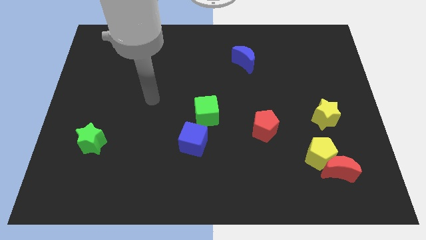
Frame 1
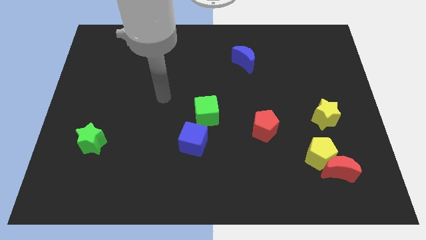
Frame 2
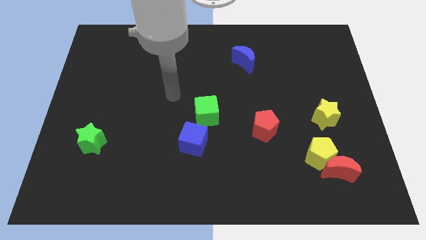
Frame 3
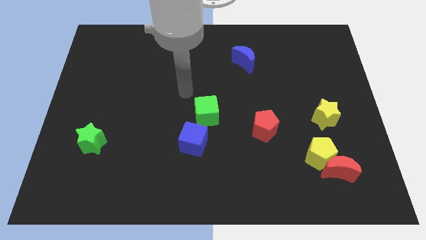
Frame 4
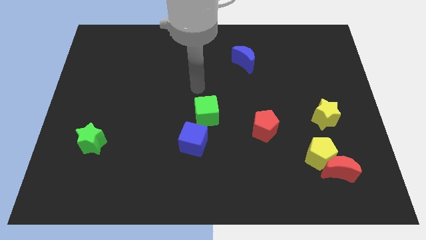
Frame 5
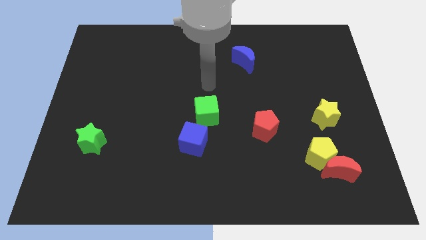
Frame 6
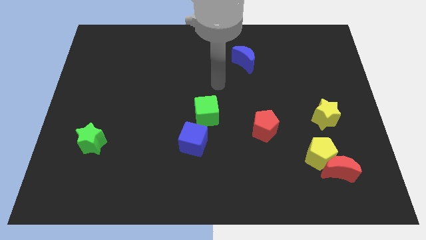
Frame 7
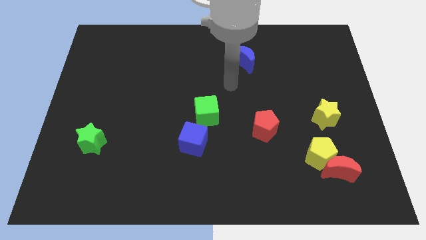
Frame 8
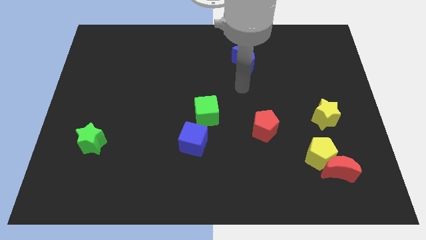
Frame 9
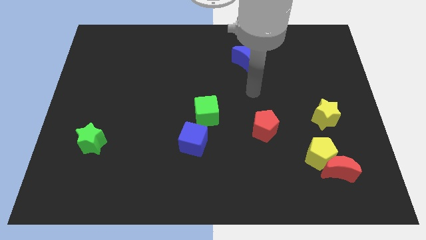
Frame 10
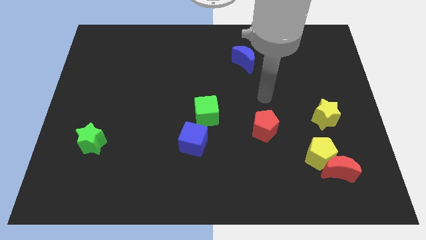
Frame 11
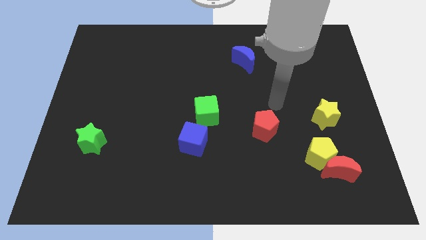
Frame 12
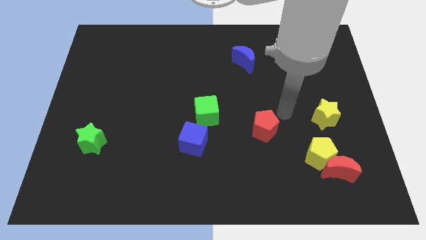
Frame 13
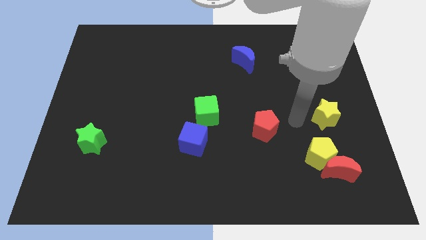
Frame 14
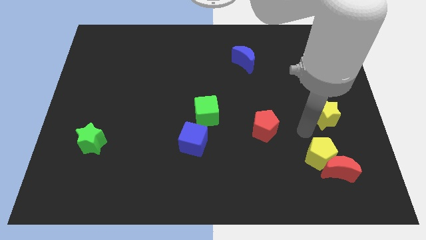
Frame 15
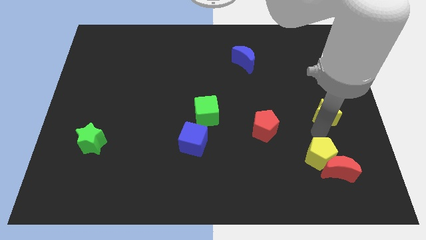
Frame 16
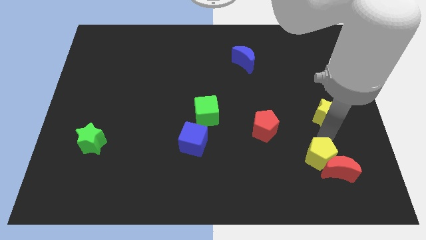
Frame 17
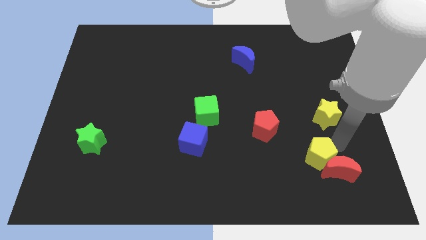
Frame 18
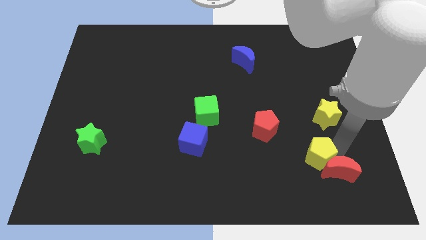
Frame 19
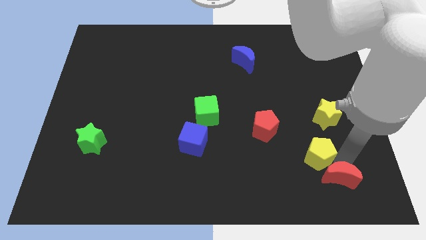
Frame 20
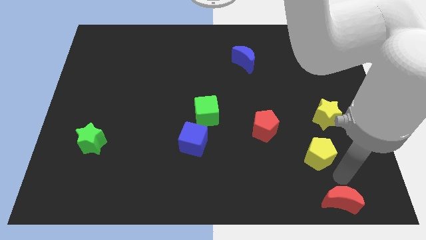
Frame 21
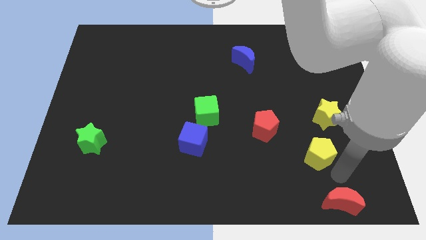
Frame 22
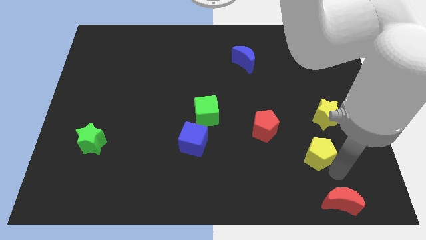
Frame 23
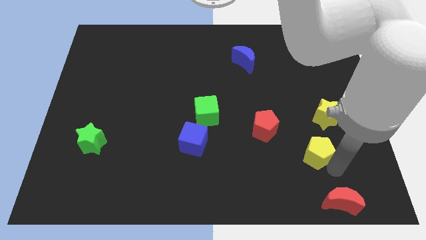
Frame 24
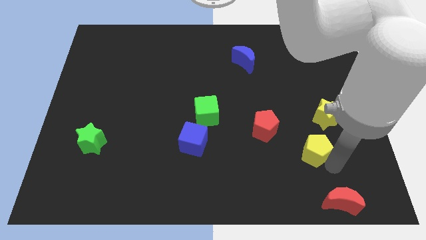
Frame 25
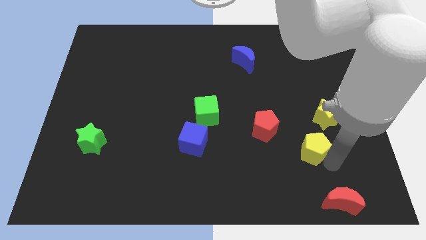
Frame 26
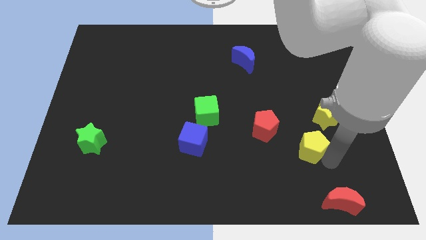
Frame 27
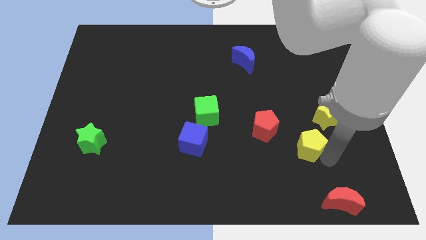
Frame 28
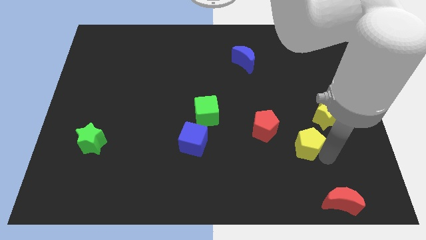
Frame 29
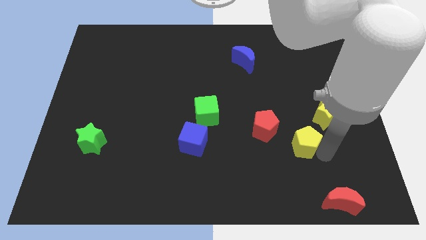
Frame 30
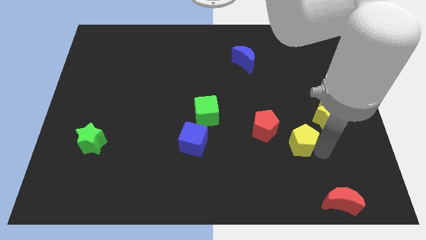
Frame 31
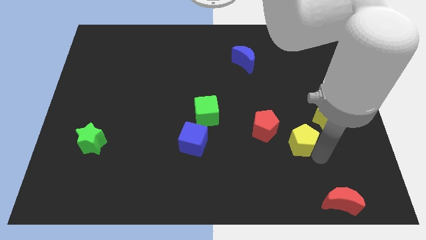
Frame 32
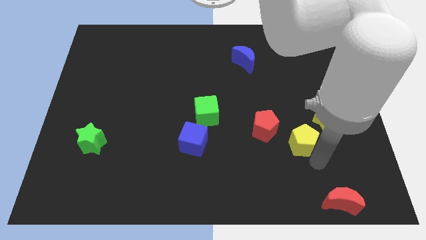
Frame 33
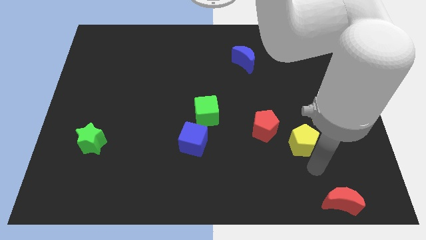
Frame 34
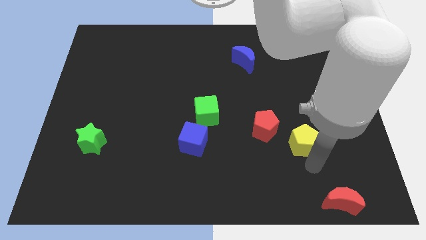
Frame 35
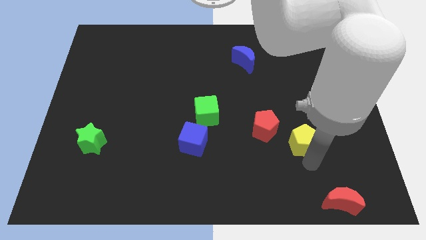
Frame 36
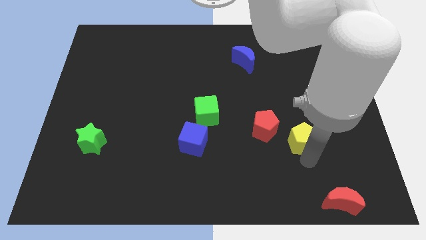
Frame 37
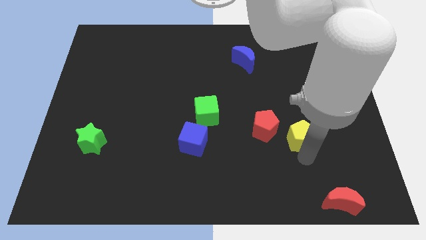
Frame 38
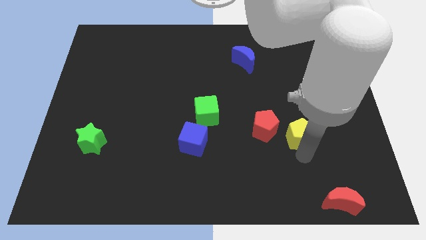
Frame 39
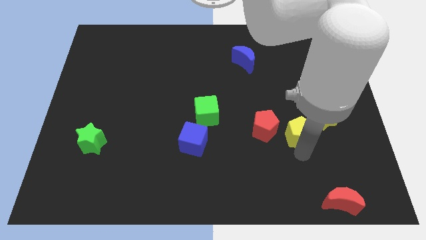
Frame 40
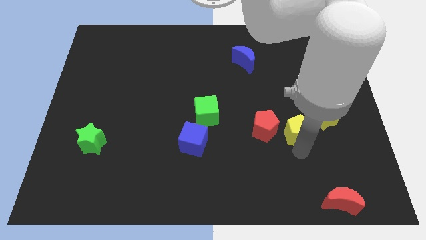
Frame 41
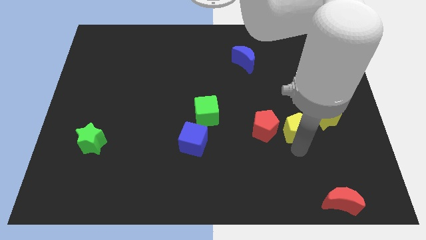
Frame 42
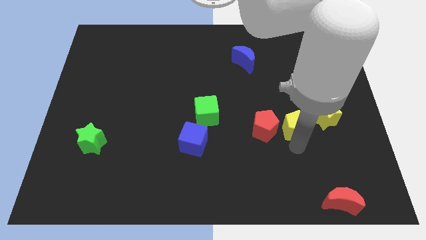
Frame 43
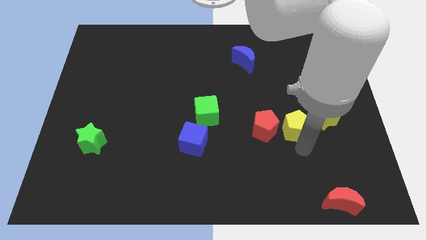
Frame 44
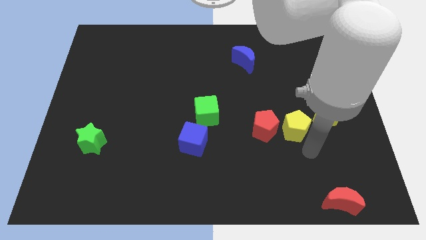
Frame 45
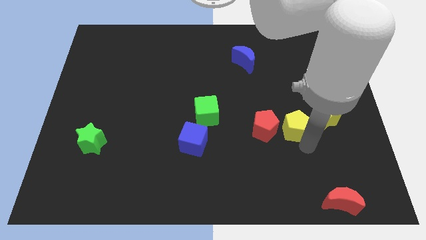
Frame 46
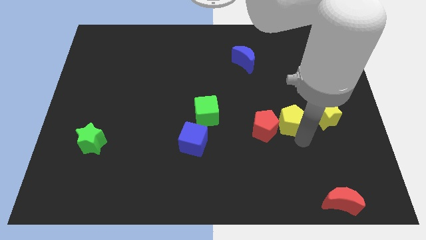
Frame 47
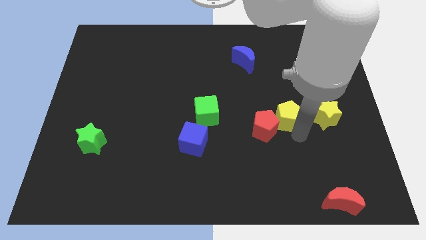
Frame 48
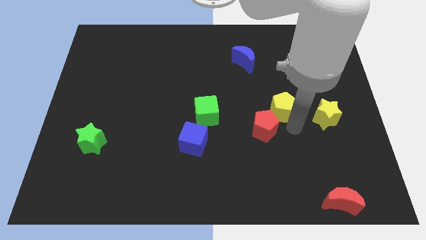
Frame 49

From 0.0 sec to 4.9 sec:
slide the yellow pentagon above the red pentagon

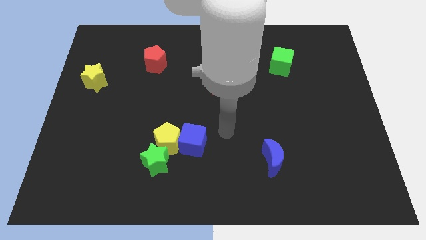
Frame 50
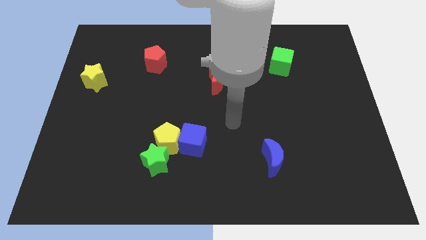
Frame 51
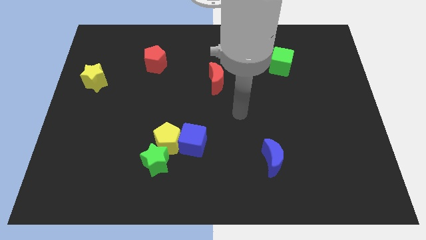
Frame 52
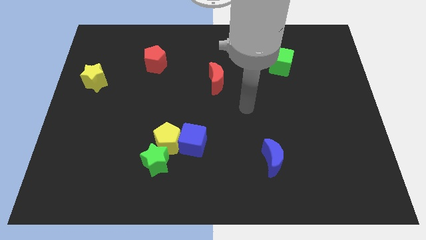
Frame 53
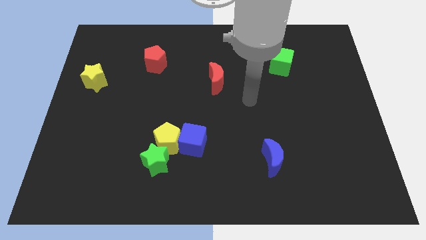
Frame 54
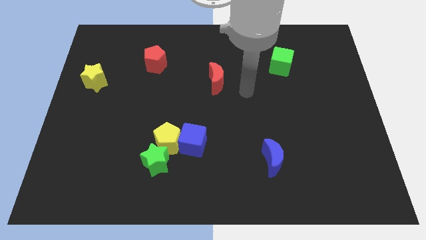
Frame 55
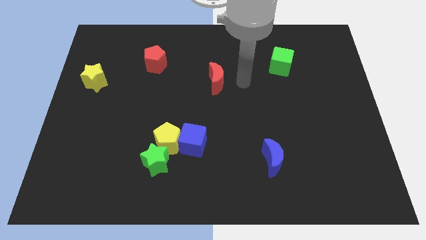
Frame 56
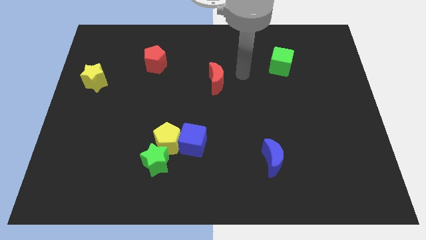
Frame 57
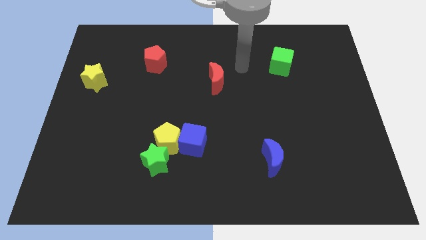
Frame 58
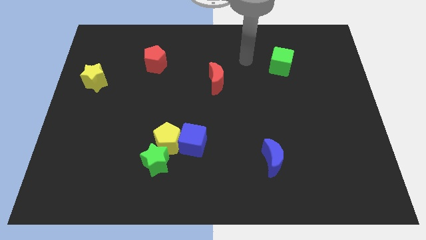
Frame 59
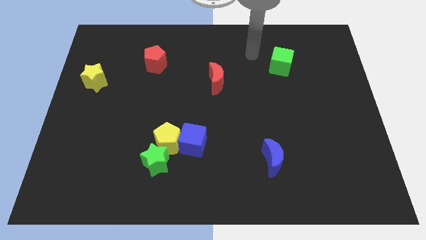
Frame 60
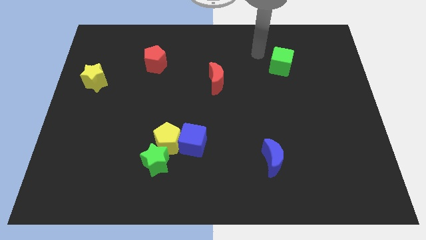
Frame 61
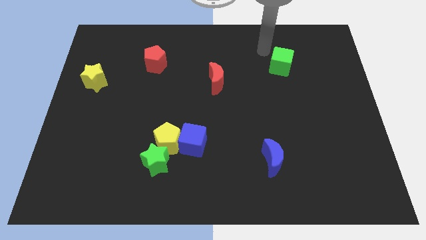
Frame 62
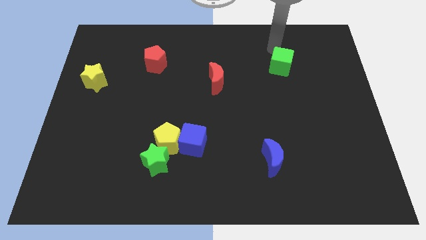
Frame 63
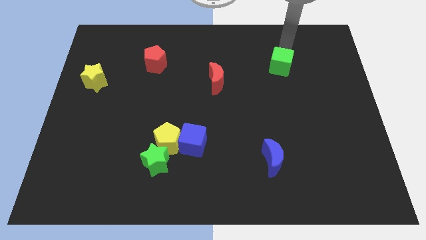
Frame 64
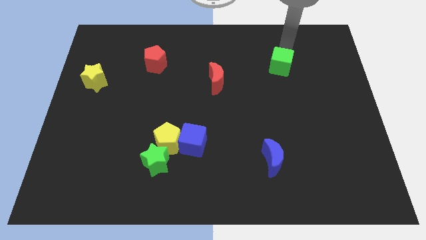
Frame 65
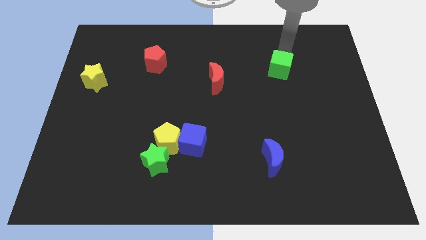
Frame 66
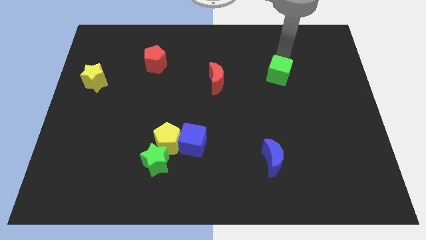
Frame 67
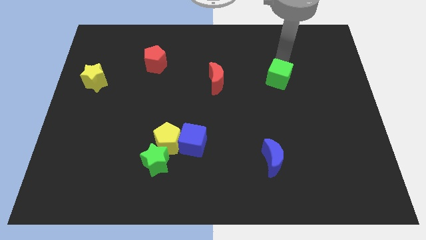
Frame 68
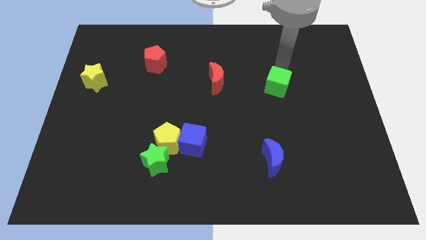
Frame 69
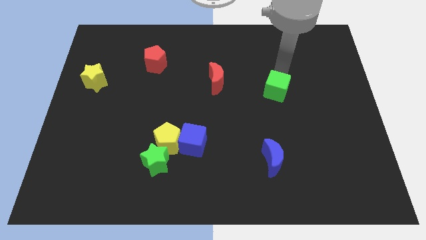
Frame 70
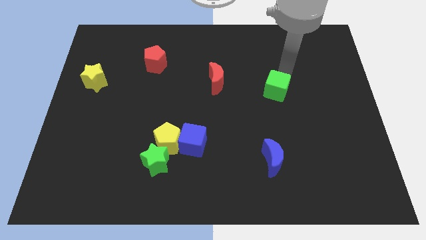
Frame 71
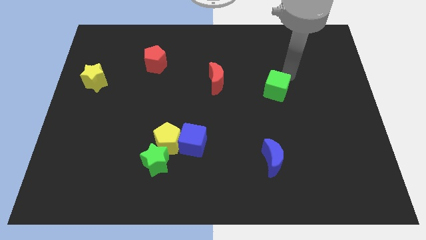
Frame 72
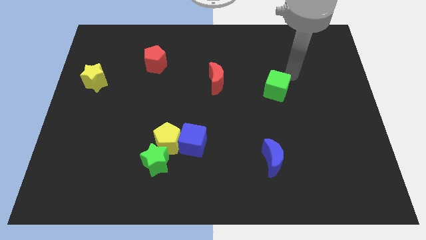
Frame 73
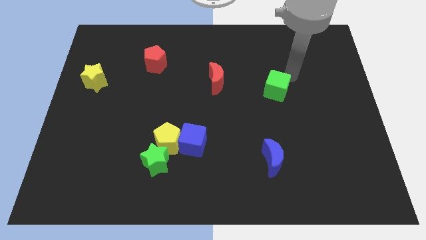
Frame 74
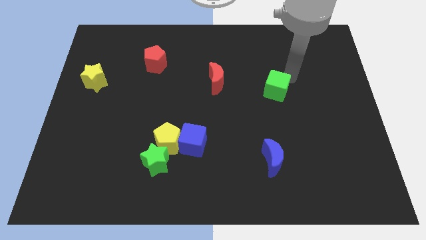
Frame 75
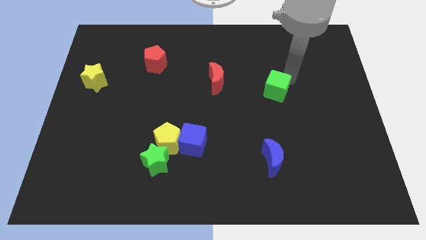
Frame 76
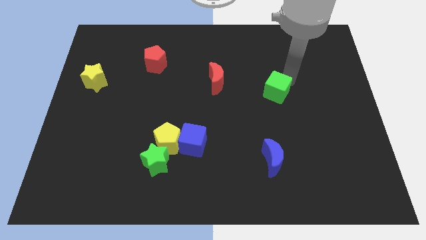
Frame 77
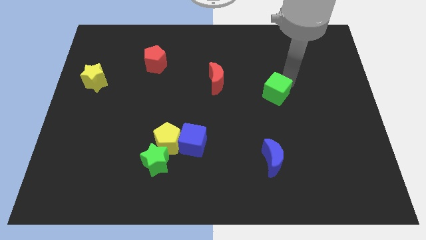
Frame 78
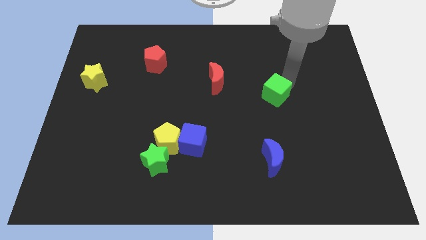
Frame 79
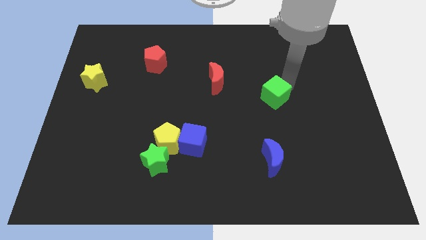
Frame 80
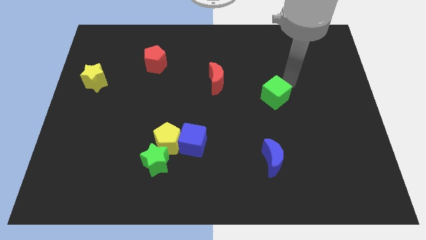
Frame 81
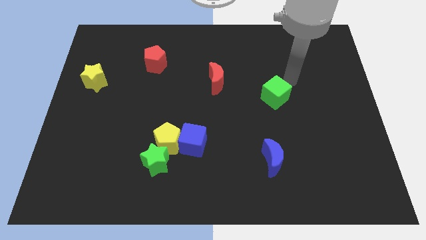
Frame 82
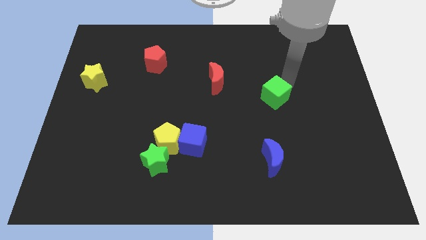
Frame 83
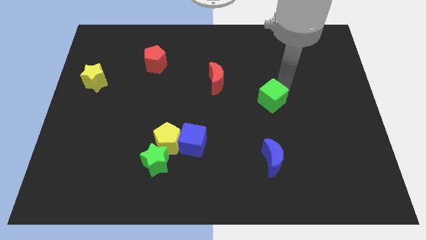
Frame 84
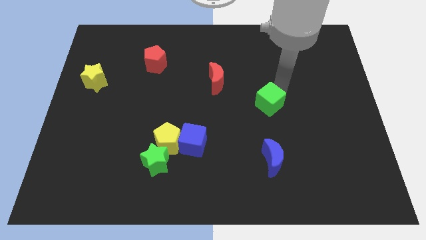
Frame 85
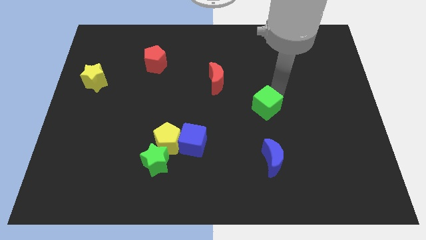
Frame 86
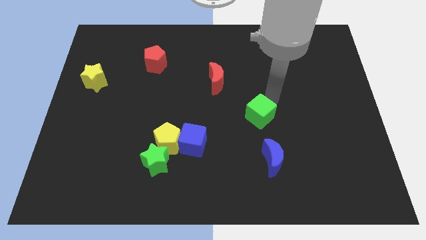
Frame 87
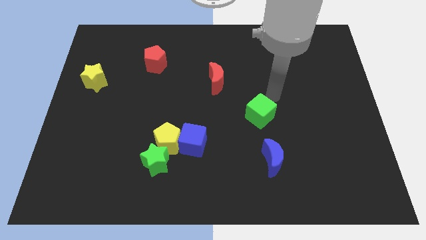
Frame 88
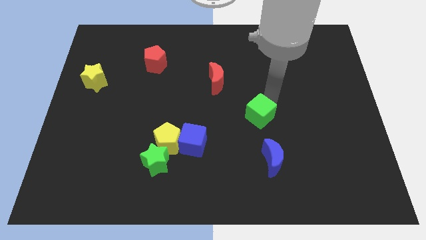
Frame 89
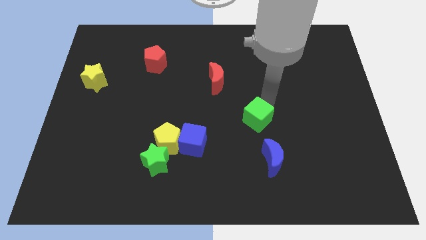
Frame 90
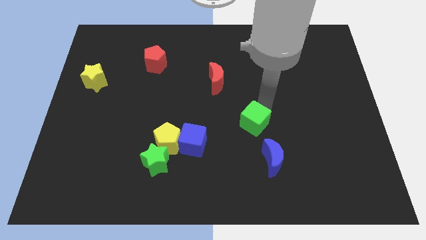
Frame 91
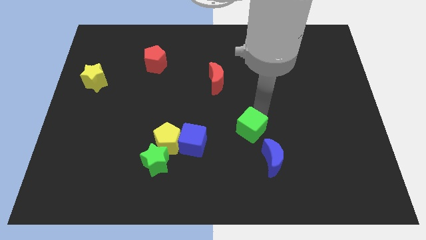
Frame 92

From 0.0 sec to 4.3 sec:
slide the green cube to the right side of the blue cube
